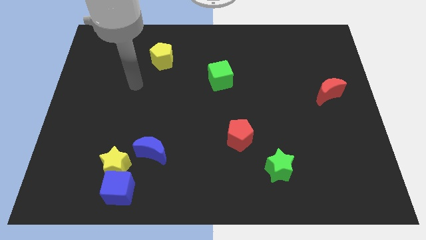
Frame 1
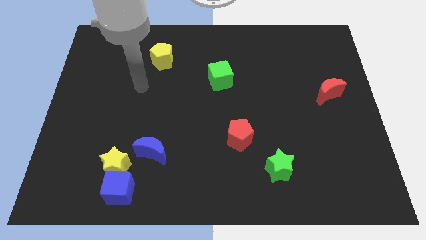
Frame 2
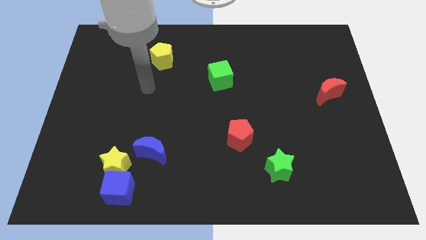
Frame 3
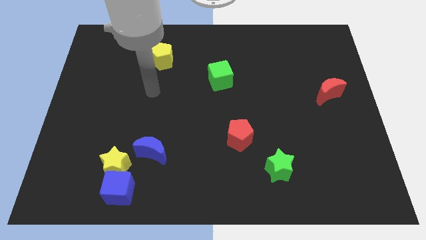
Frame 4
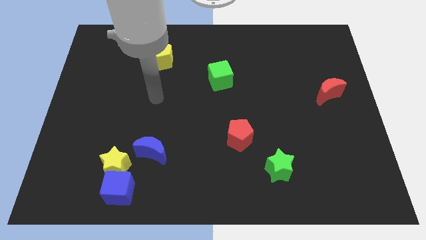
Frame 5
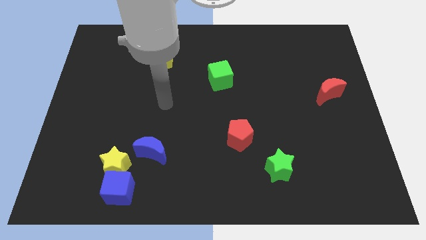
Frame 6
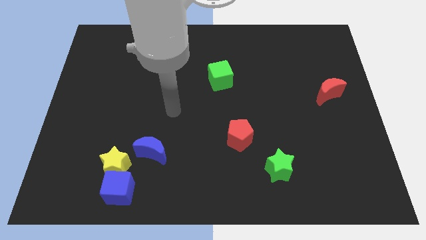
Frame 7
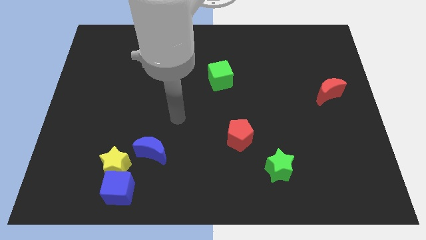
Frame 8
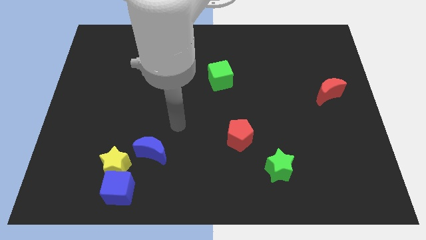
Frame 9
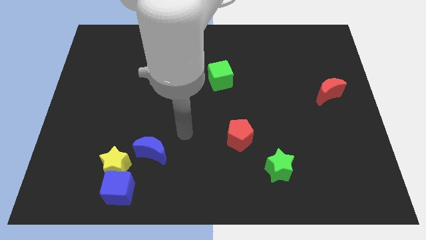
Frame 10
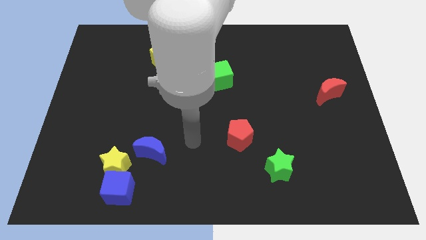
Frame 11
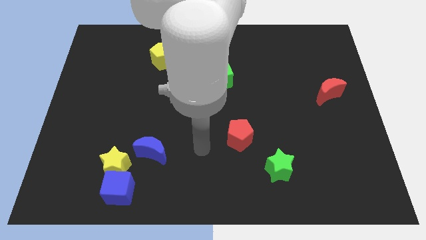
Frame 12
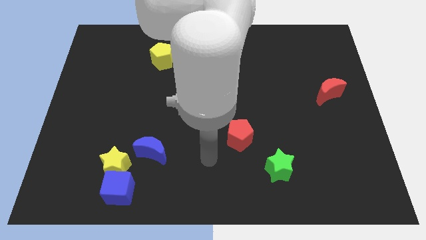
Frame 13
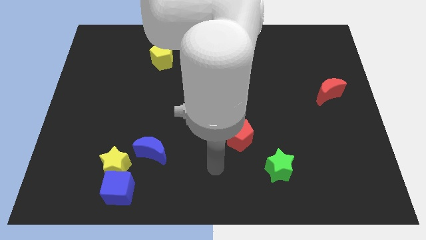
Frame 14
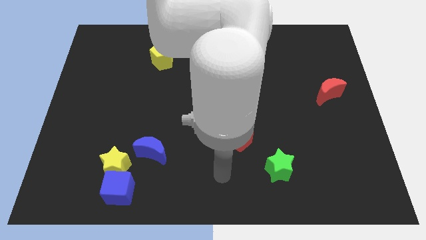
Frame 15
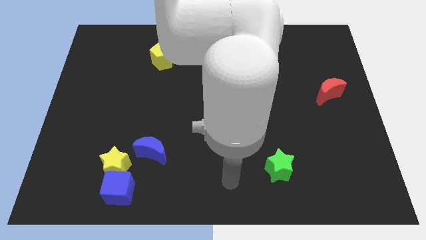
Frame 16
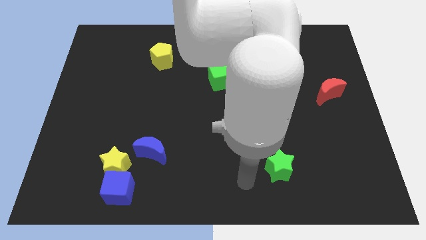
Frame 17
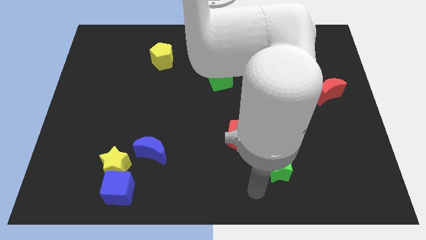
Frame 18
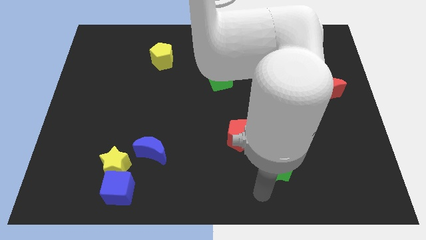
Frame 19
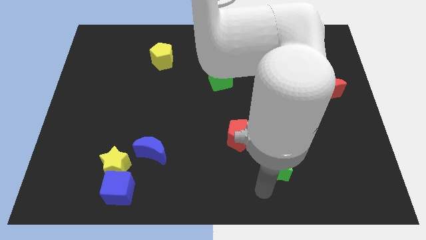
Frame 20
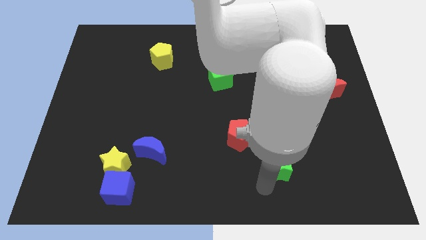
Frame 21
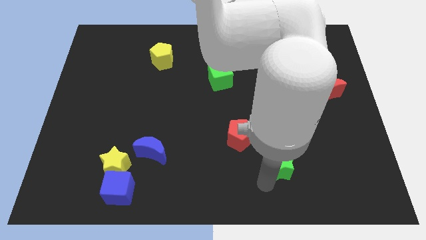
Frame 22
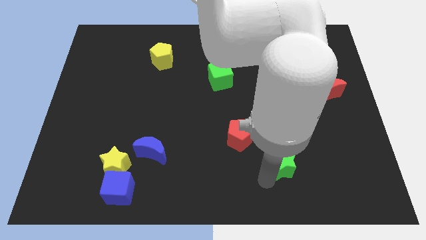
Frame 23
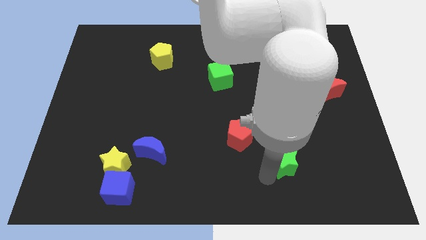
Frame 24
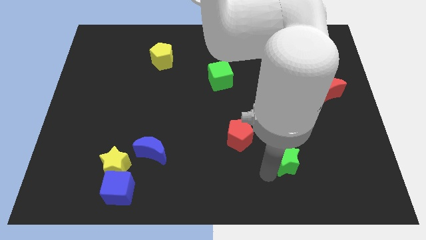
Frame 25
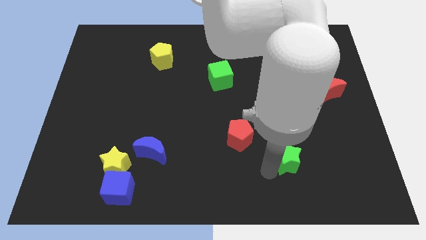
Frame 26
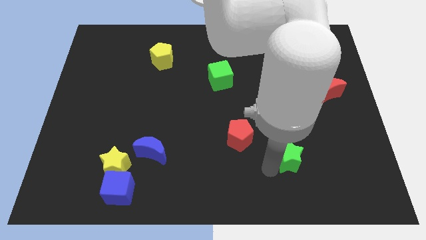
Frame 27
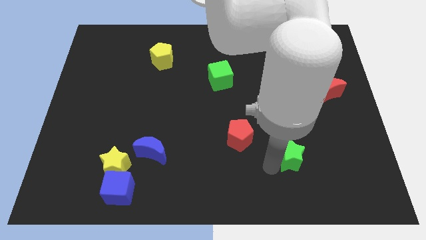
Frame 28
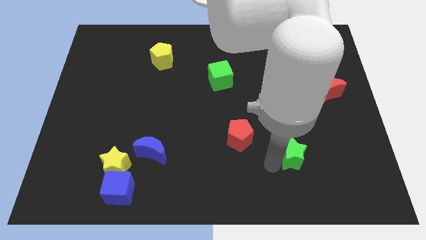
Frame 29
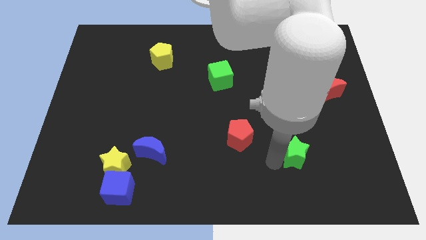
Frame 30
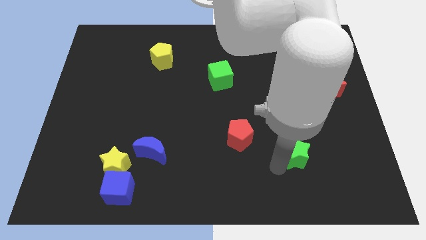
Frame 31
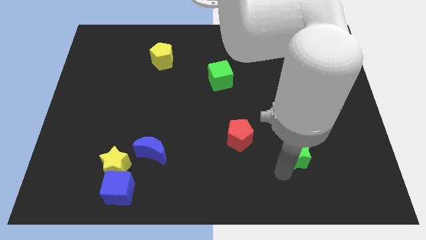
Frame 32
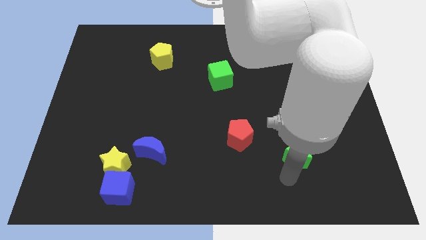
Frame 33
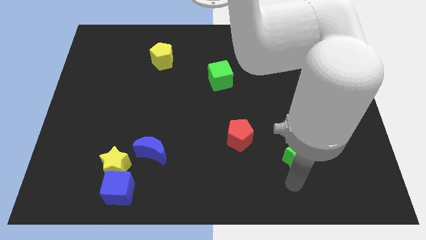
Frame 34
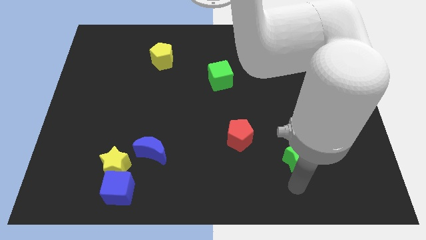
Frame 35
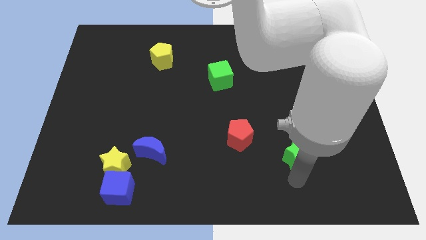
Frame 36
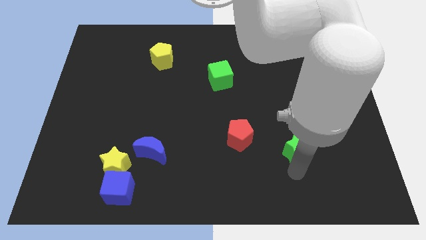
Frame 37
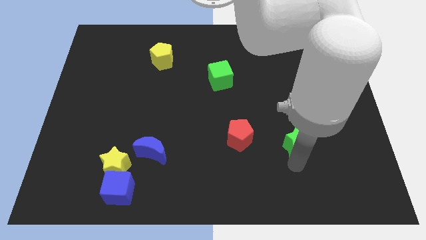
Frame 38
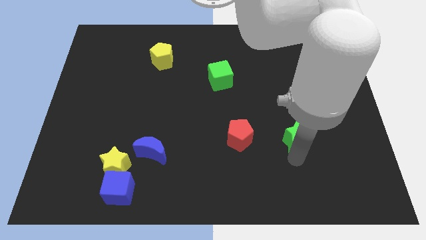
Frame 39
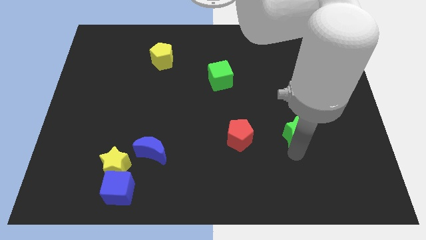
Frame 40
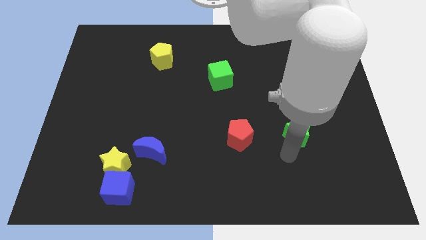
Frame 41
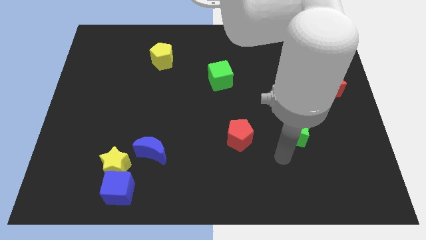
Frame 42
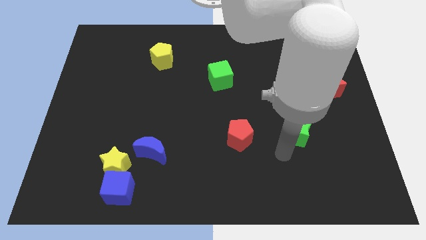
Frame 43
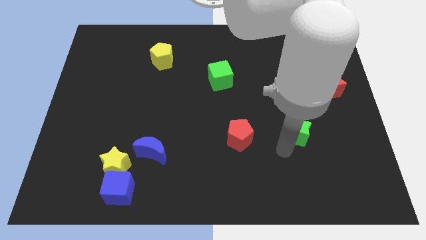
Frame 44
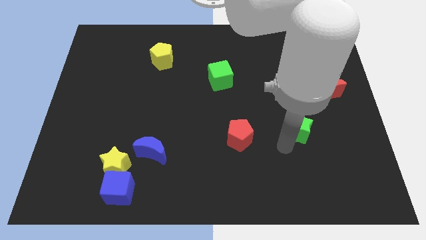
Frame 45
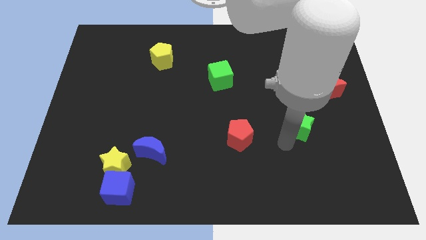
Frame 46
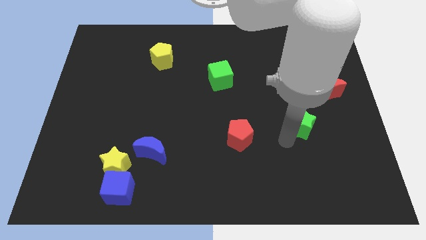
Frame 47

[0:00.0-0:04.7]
slide the green star diagonally down and to the left of the red moon

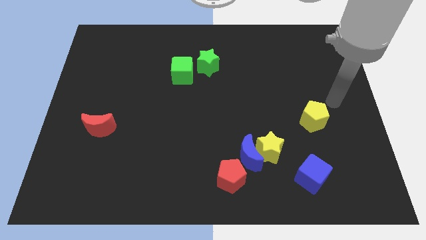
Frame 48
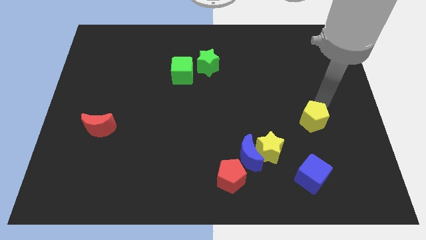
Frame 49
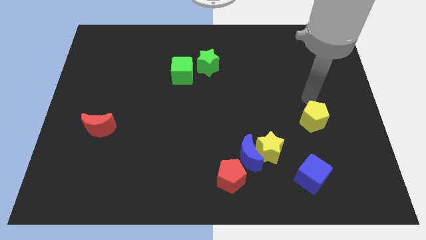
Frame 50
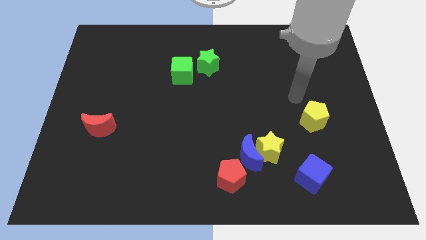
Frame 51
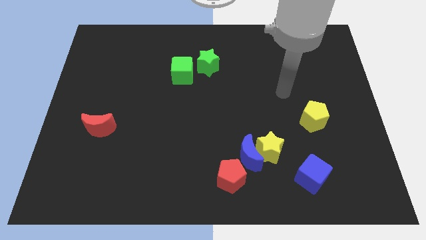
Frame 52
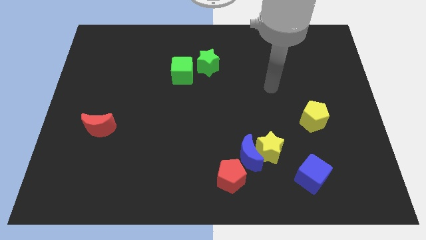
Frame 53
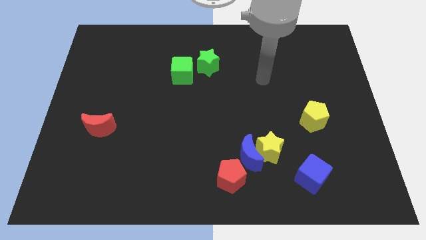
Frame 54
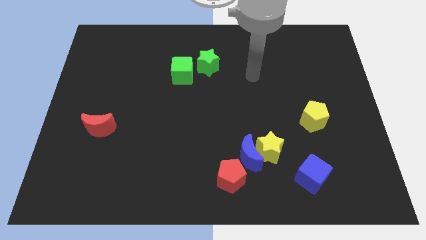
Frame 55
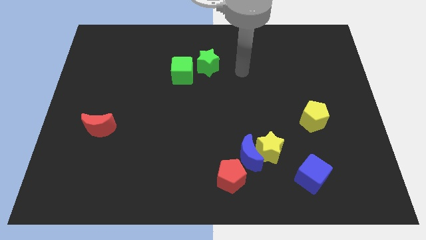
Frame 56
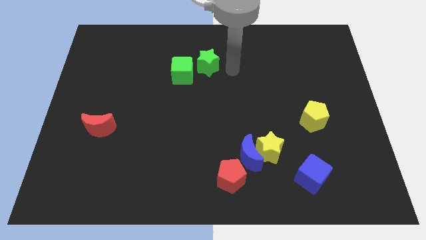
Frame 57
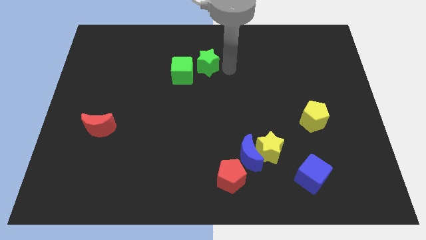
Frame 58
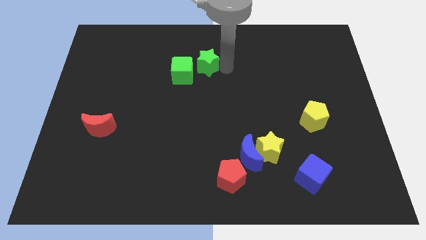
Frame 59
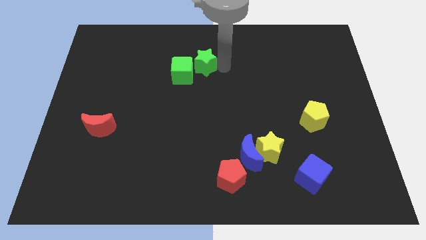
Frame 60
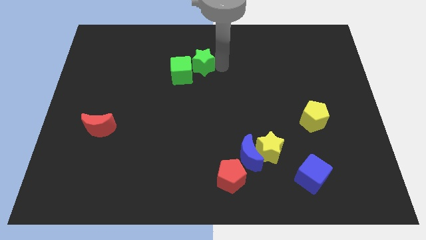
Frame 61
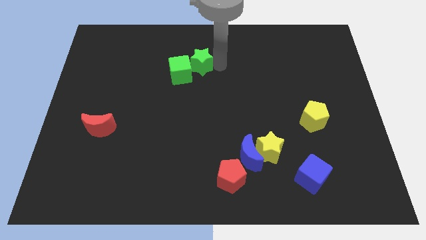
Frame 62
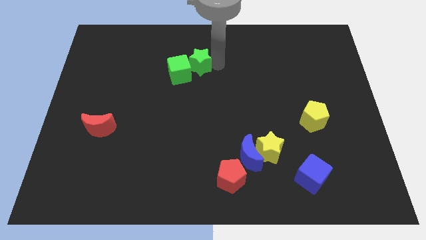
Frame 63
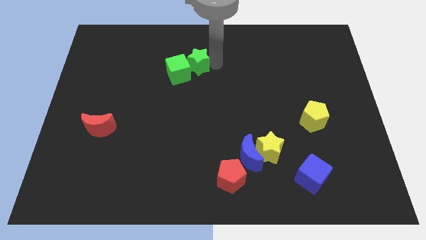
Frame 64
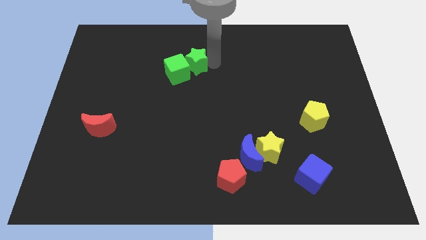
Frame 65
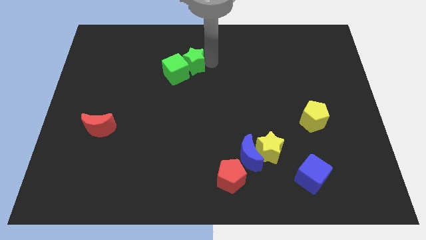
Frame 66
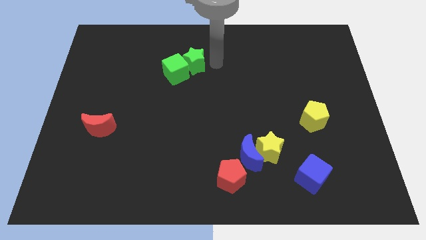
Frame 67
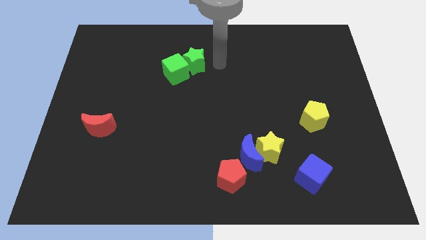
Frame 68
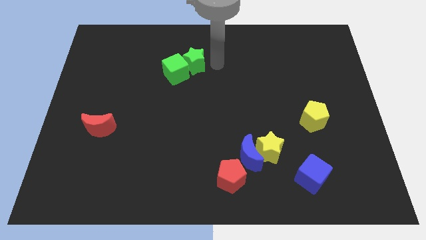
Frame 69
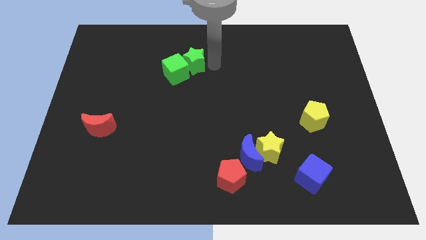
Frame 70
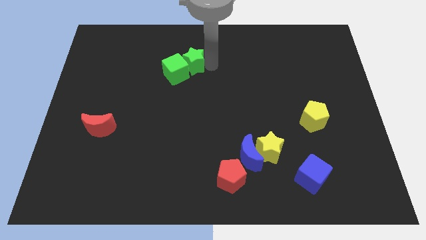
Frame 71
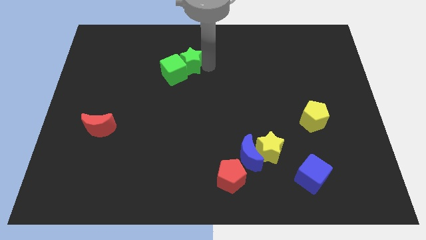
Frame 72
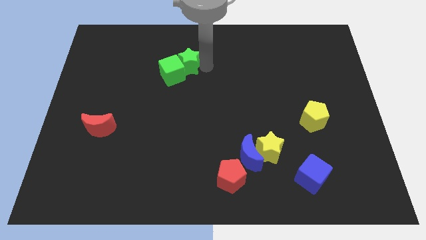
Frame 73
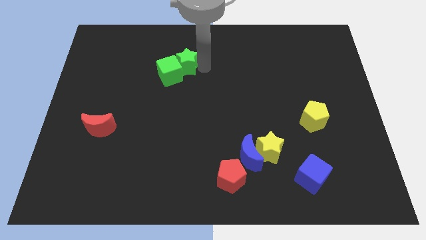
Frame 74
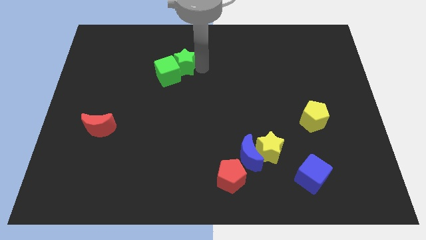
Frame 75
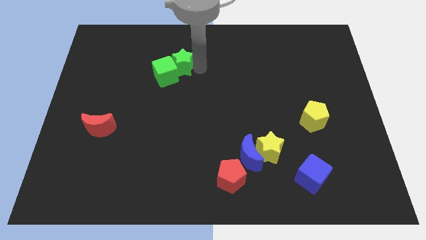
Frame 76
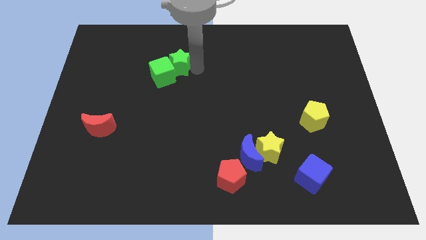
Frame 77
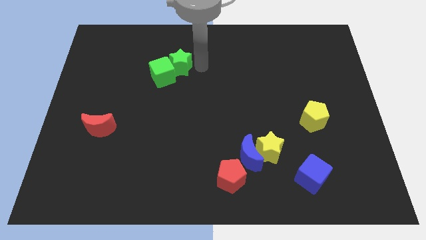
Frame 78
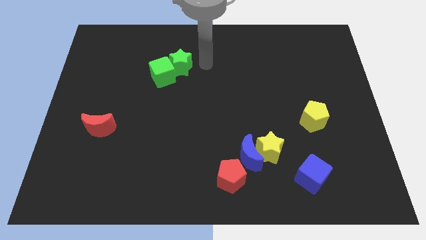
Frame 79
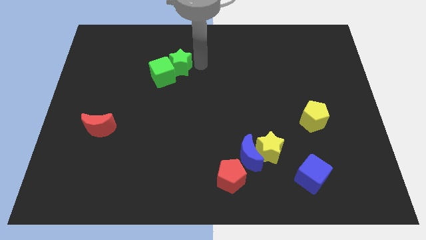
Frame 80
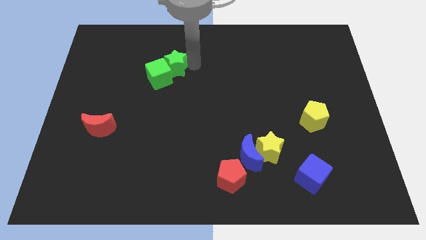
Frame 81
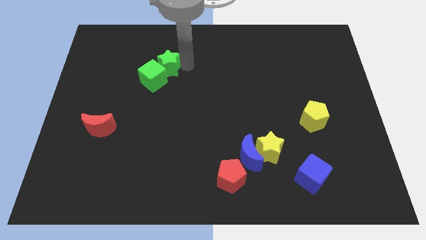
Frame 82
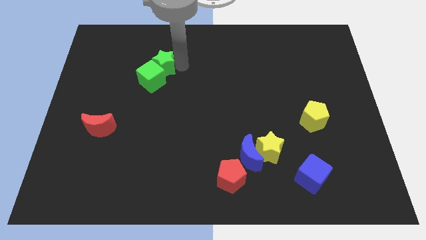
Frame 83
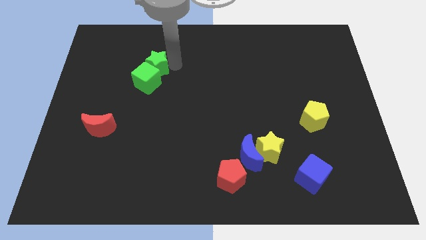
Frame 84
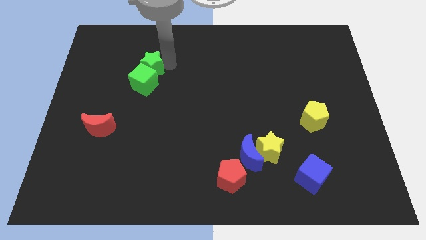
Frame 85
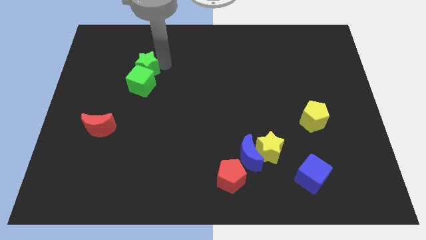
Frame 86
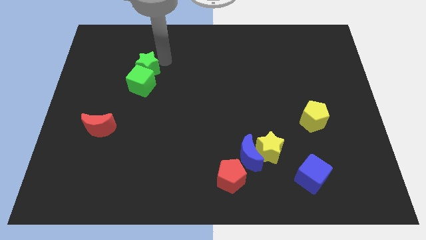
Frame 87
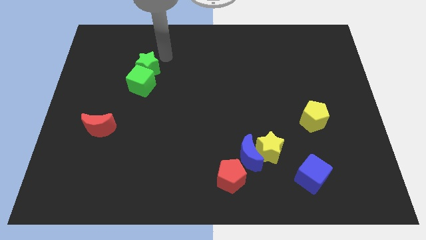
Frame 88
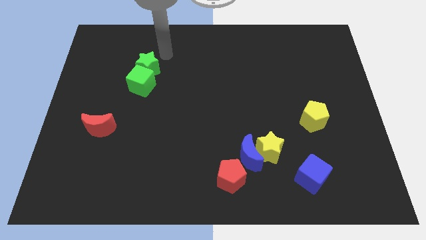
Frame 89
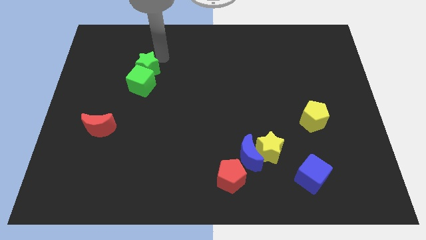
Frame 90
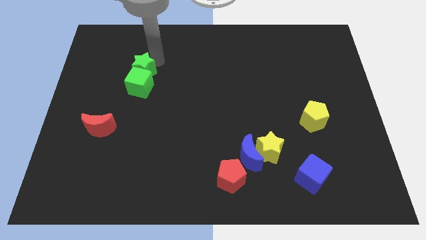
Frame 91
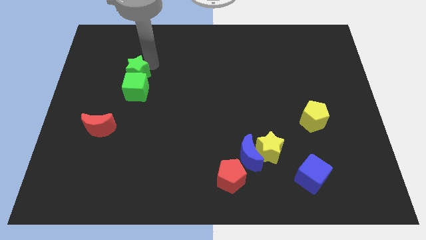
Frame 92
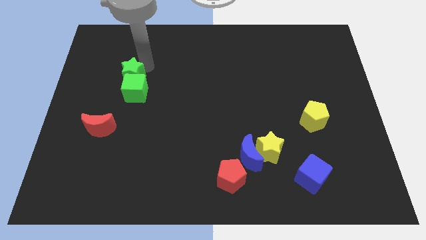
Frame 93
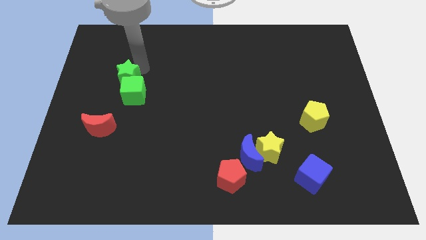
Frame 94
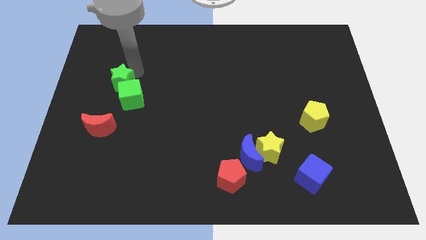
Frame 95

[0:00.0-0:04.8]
put the green star above the red moon
